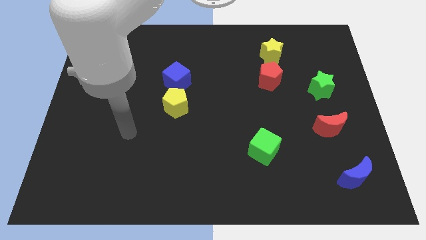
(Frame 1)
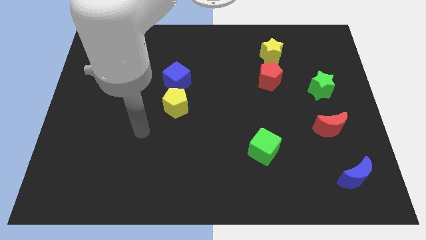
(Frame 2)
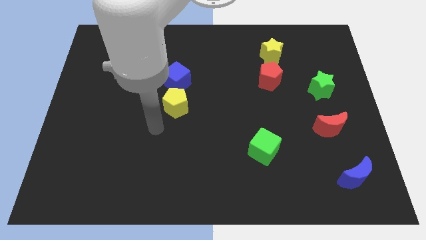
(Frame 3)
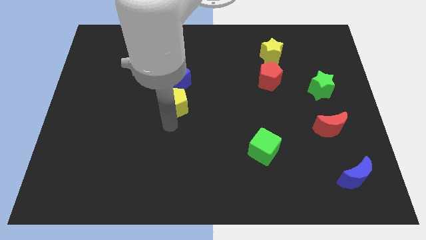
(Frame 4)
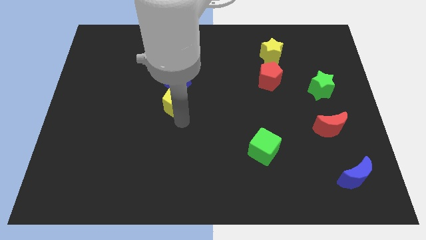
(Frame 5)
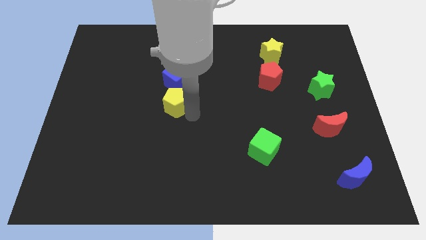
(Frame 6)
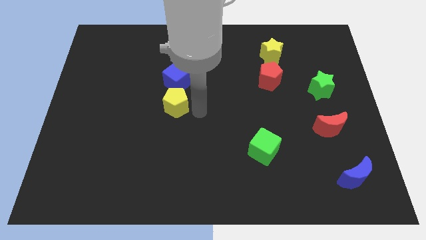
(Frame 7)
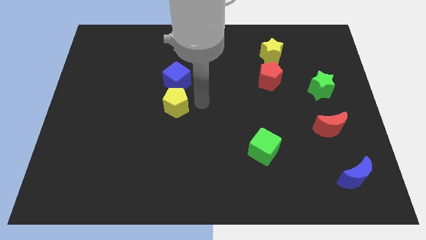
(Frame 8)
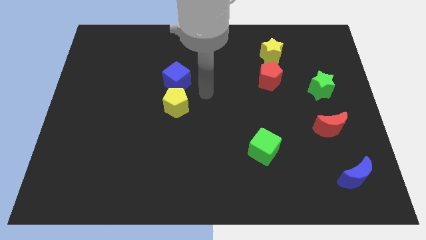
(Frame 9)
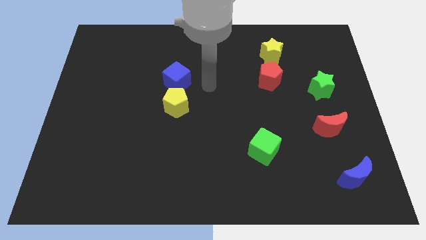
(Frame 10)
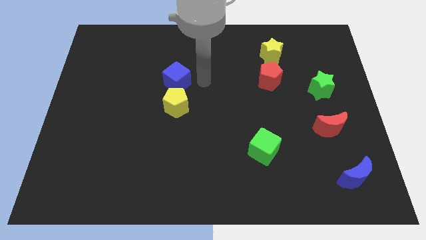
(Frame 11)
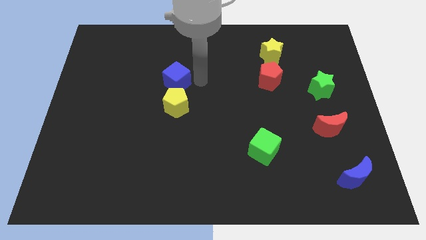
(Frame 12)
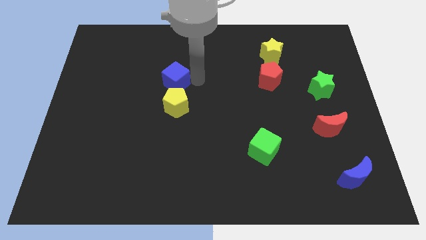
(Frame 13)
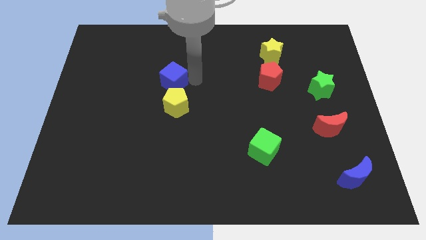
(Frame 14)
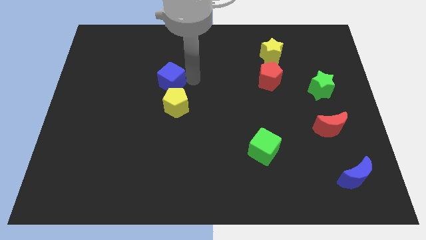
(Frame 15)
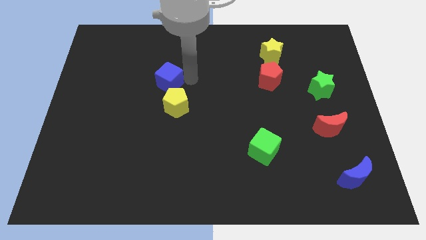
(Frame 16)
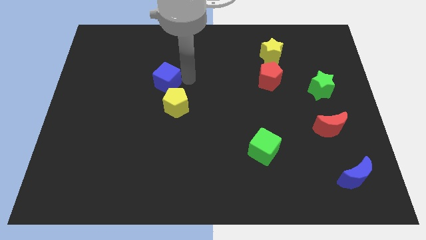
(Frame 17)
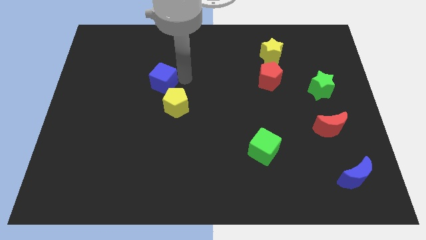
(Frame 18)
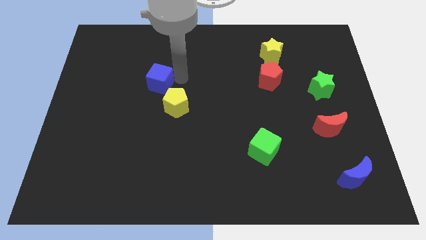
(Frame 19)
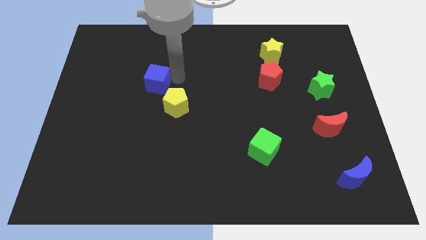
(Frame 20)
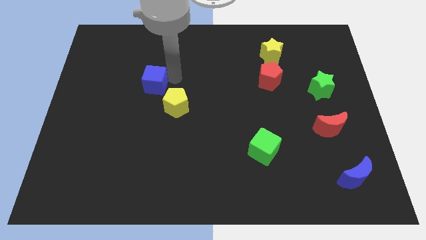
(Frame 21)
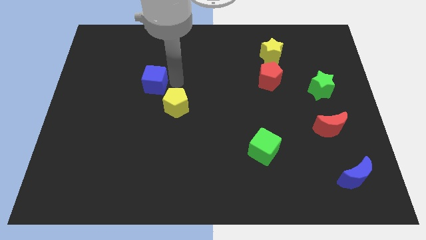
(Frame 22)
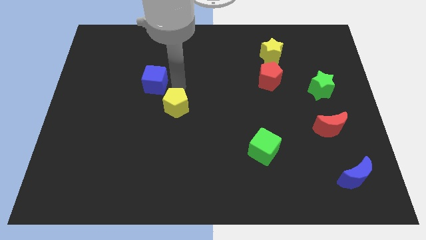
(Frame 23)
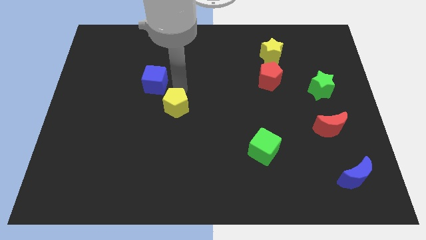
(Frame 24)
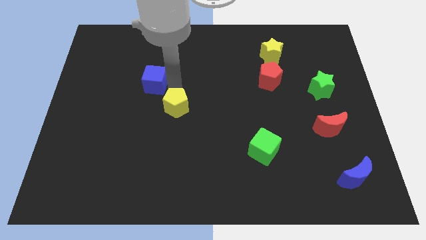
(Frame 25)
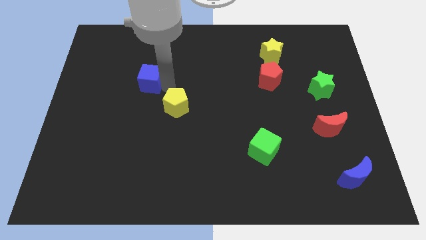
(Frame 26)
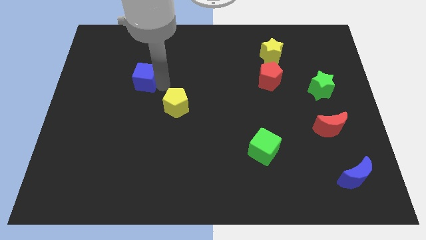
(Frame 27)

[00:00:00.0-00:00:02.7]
slide the blue cube left somewhat

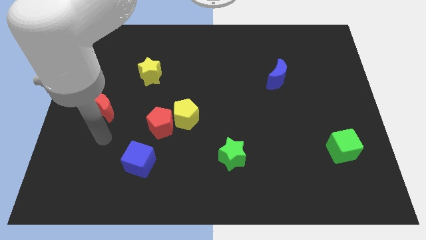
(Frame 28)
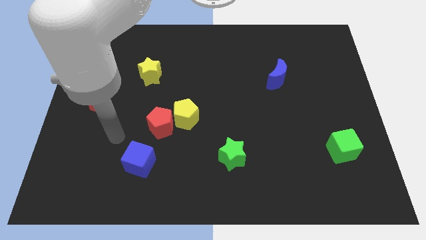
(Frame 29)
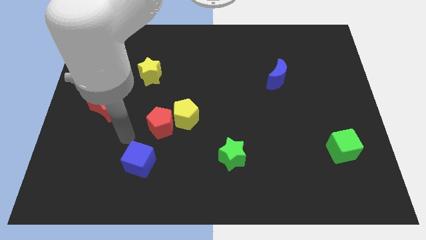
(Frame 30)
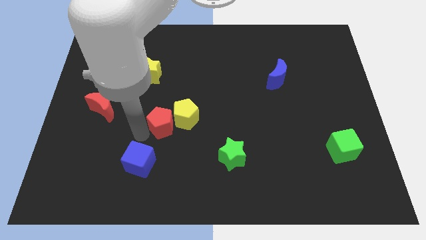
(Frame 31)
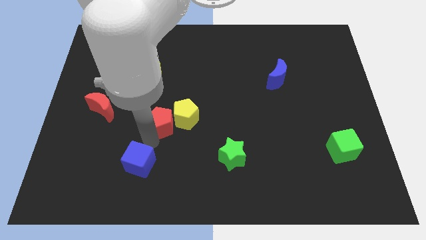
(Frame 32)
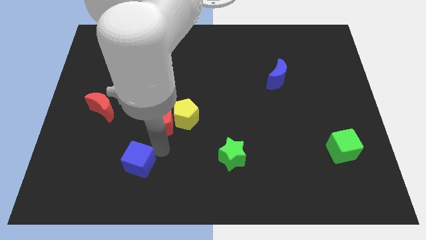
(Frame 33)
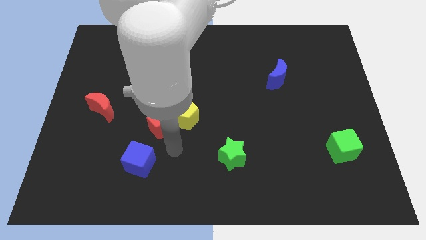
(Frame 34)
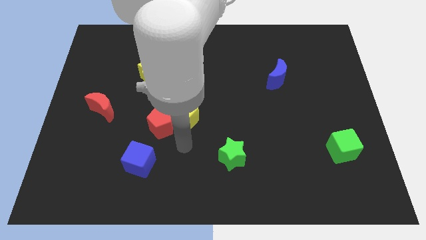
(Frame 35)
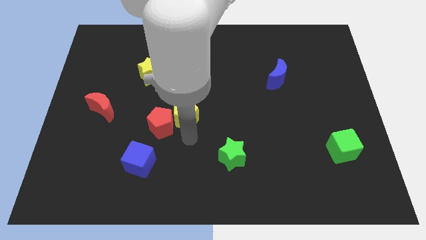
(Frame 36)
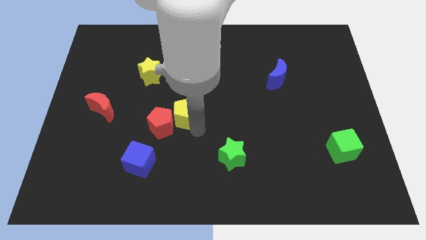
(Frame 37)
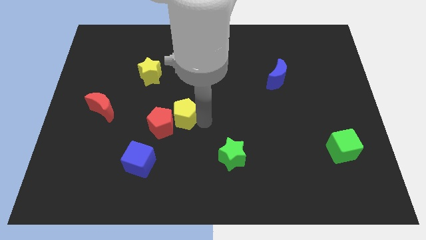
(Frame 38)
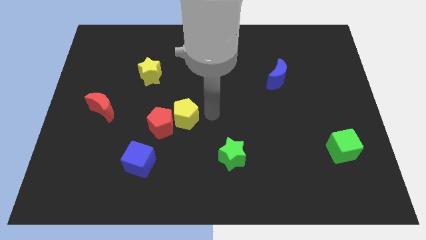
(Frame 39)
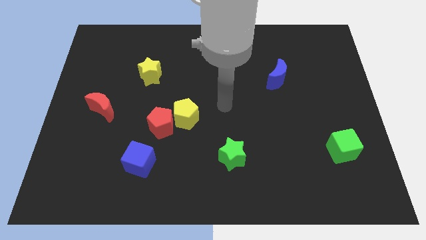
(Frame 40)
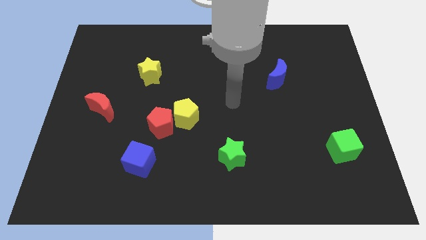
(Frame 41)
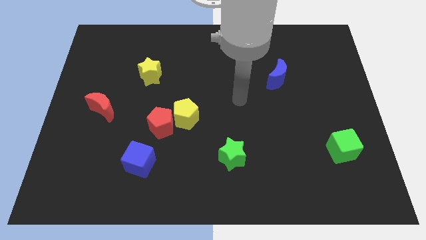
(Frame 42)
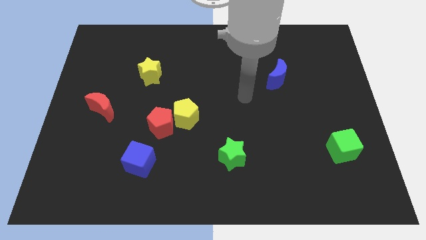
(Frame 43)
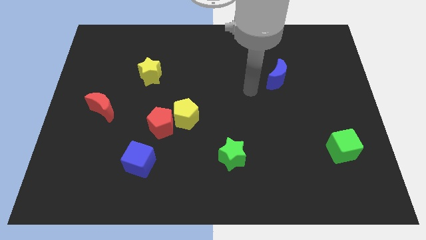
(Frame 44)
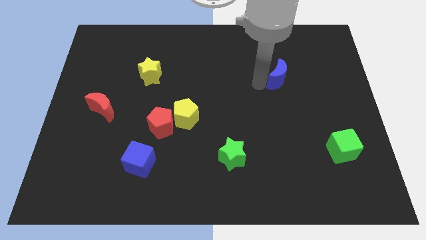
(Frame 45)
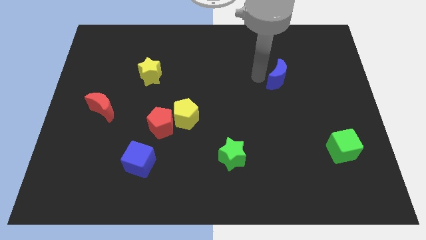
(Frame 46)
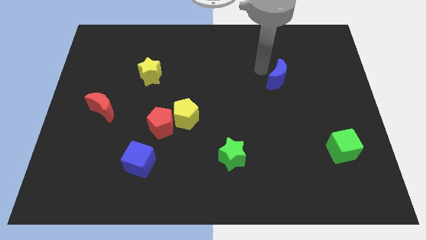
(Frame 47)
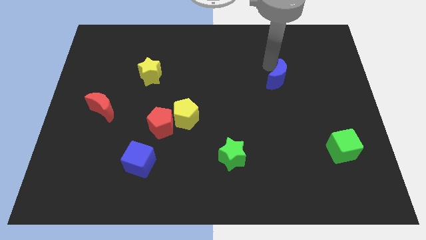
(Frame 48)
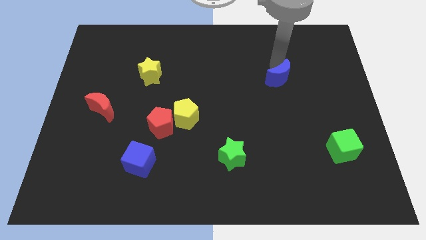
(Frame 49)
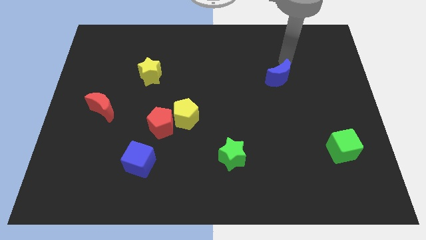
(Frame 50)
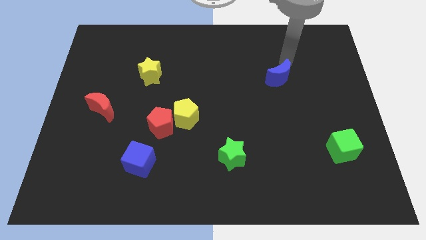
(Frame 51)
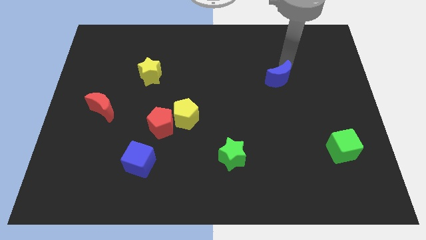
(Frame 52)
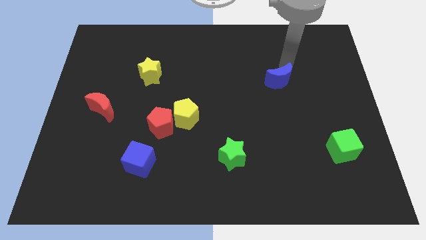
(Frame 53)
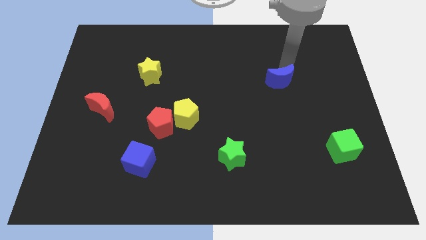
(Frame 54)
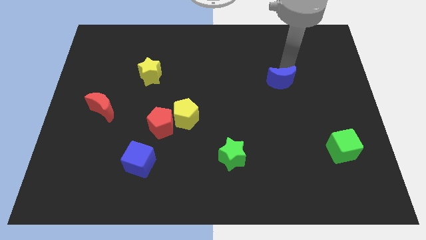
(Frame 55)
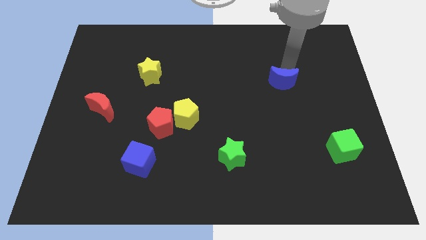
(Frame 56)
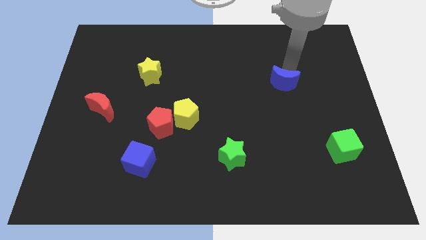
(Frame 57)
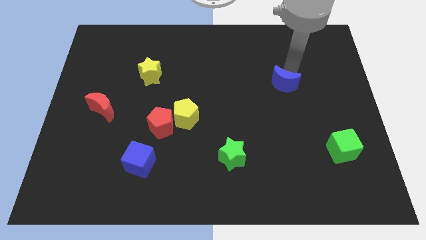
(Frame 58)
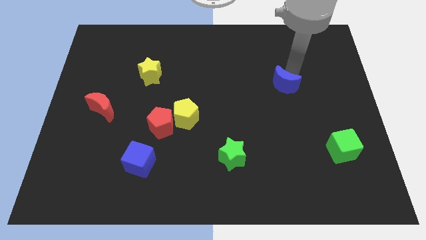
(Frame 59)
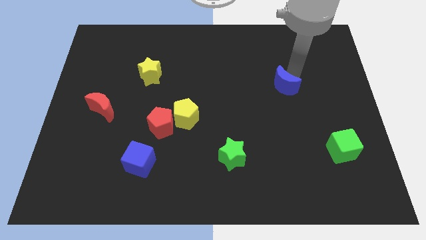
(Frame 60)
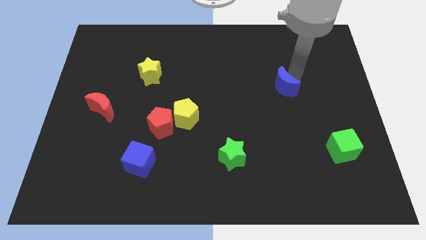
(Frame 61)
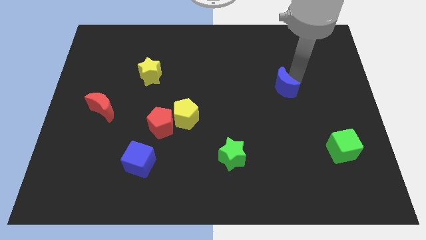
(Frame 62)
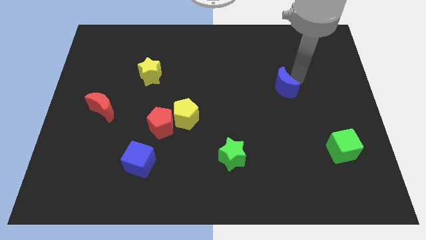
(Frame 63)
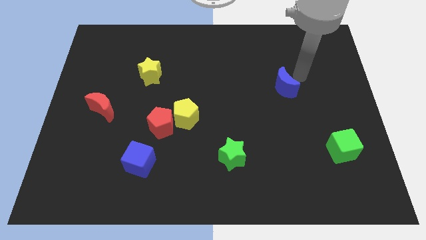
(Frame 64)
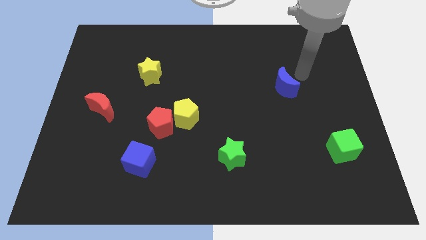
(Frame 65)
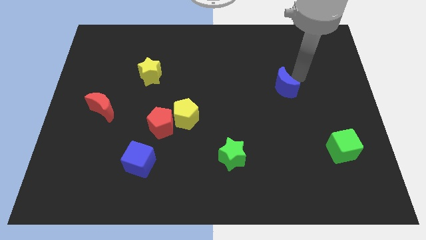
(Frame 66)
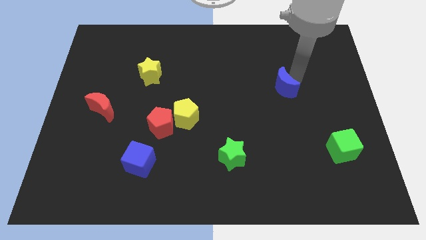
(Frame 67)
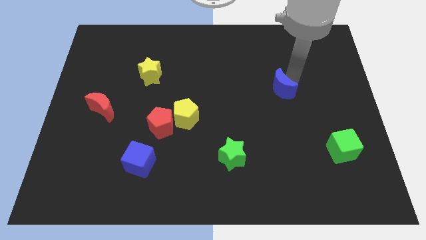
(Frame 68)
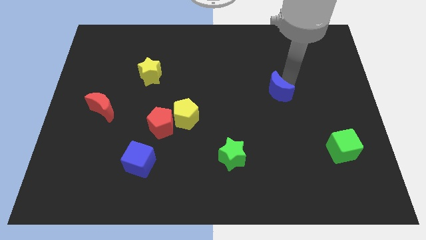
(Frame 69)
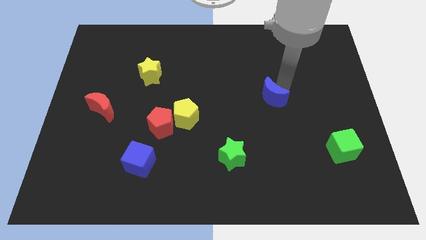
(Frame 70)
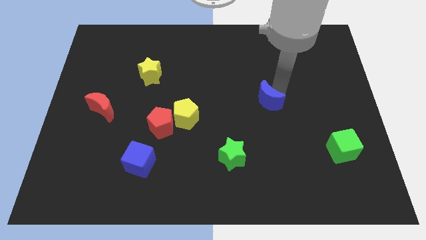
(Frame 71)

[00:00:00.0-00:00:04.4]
slide the blue moon down and left a bit

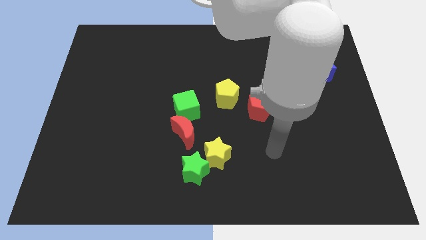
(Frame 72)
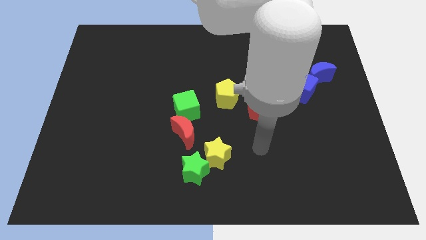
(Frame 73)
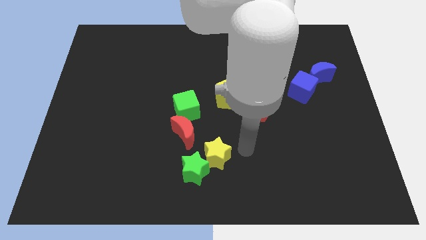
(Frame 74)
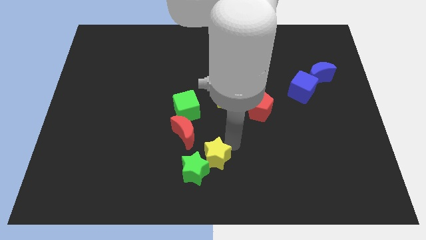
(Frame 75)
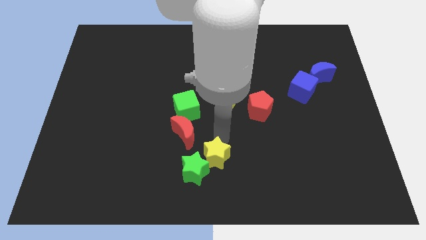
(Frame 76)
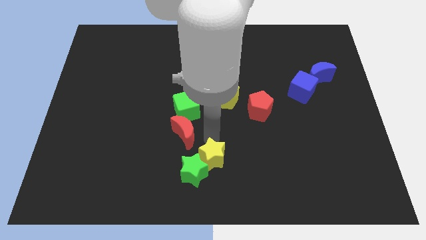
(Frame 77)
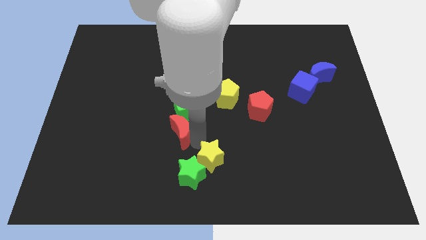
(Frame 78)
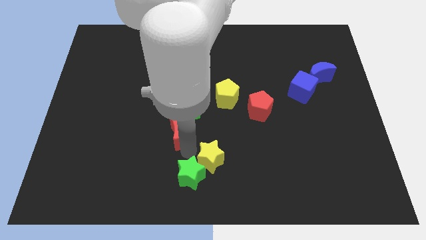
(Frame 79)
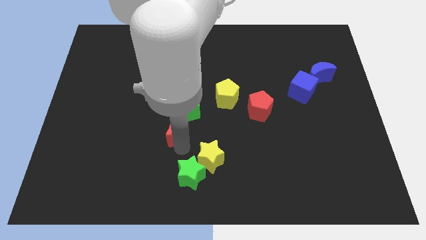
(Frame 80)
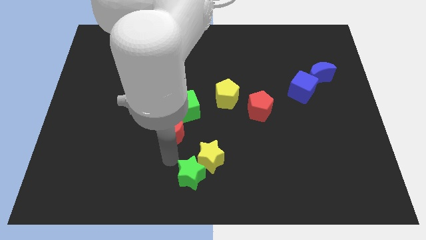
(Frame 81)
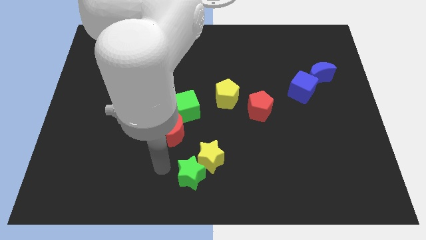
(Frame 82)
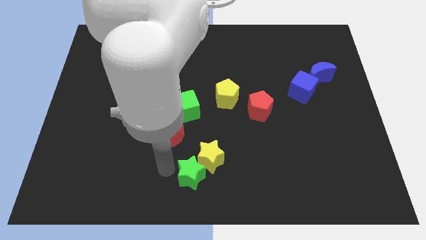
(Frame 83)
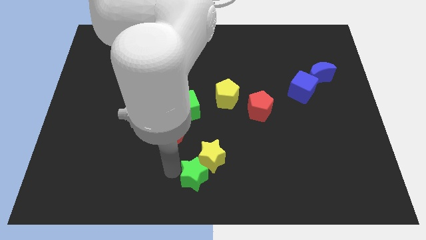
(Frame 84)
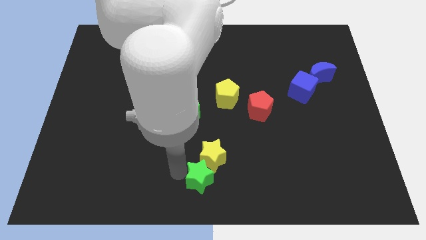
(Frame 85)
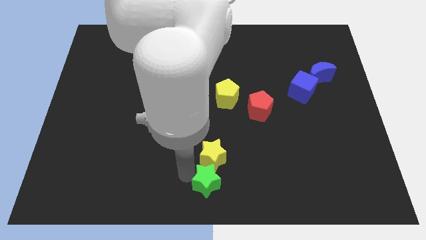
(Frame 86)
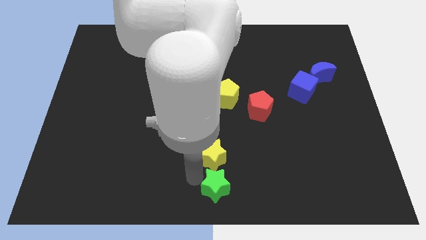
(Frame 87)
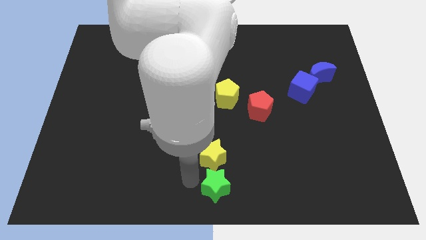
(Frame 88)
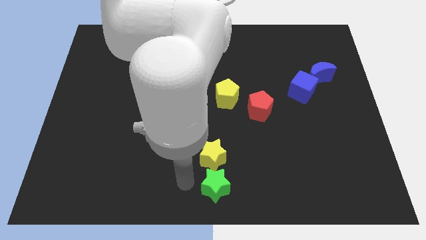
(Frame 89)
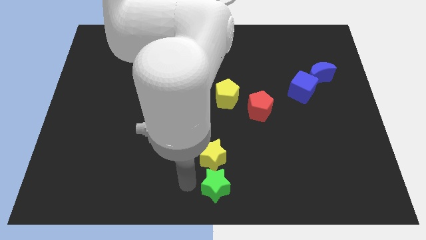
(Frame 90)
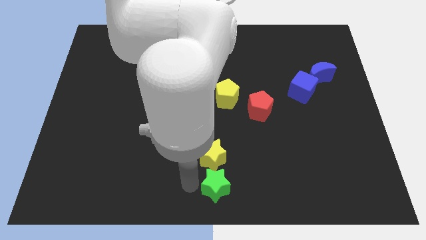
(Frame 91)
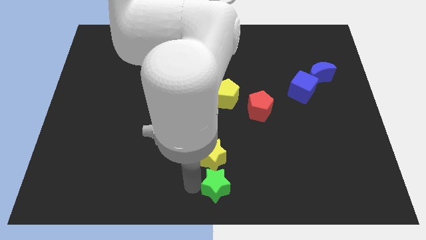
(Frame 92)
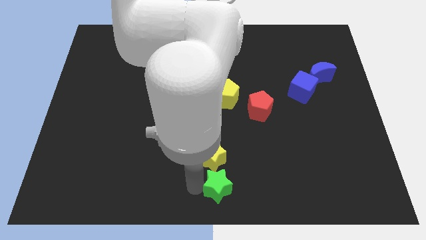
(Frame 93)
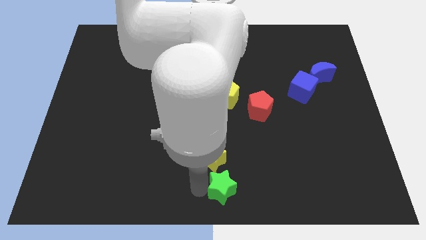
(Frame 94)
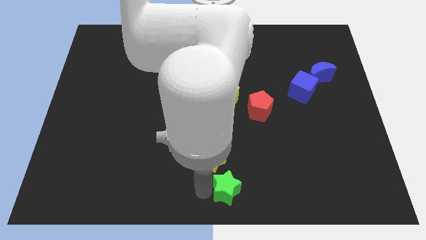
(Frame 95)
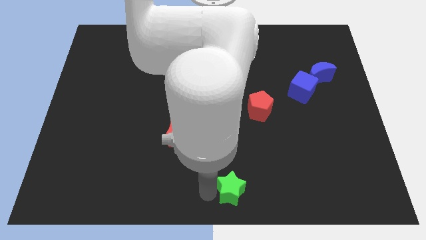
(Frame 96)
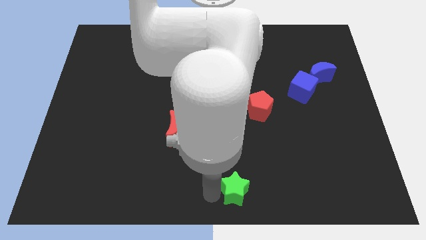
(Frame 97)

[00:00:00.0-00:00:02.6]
slightly slide the green star to the right
